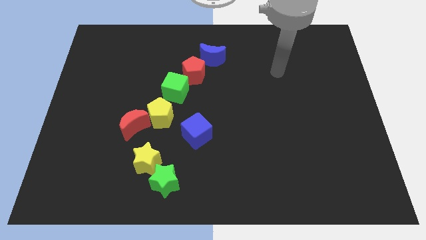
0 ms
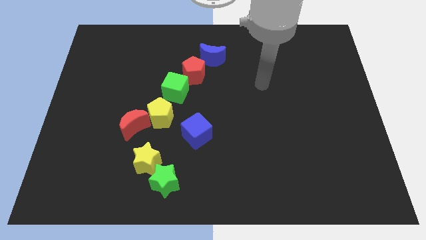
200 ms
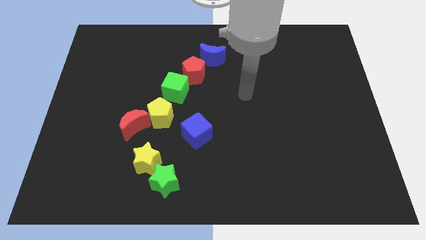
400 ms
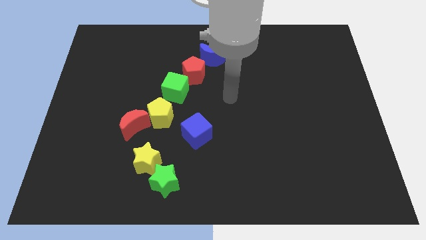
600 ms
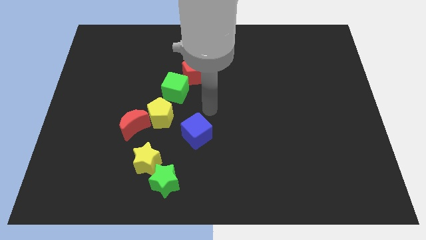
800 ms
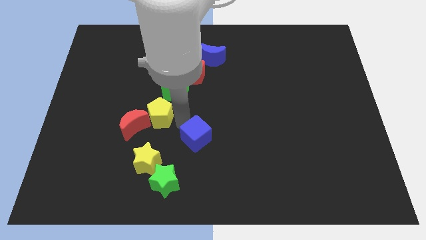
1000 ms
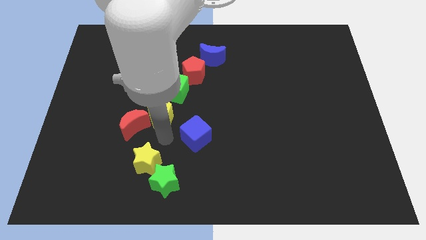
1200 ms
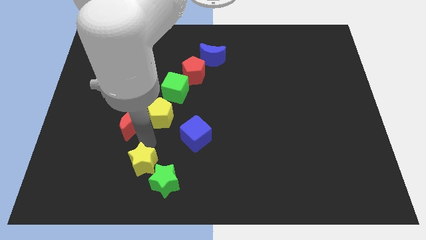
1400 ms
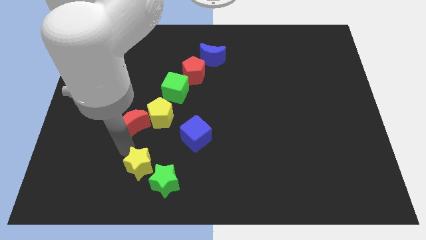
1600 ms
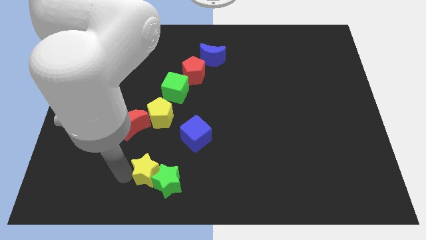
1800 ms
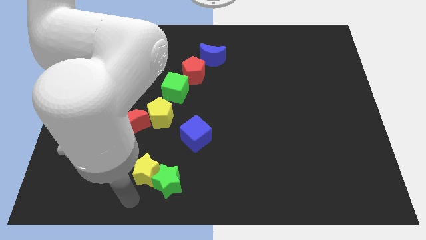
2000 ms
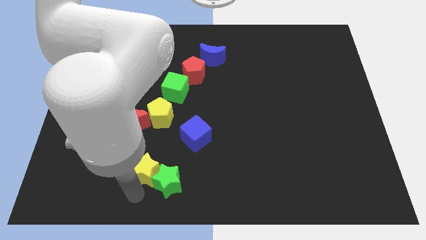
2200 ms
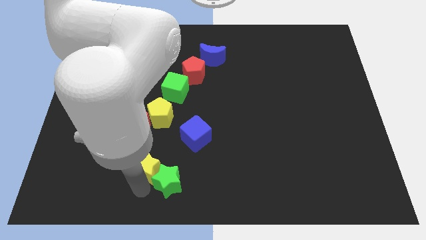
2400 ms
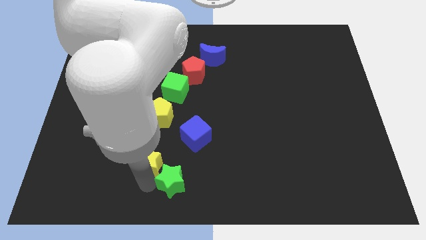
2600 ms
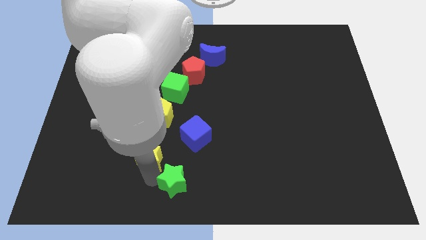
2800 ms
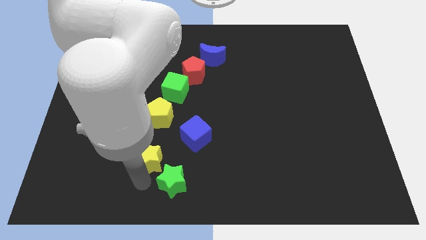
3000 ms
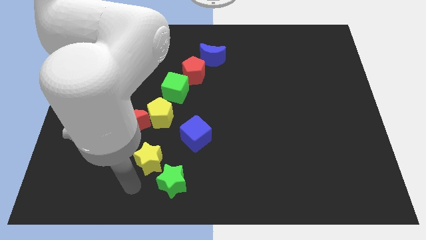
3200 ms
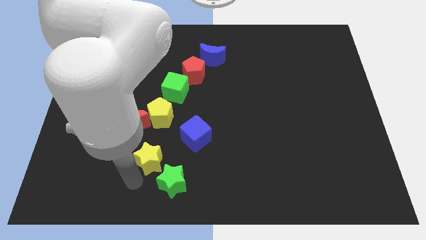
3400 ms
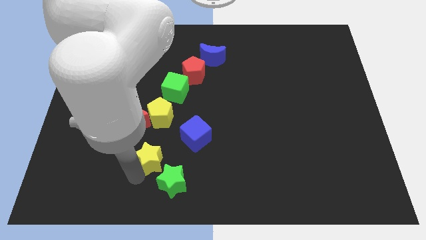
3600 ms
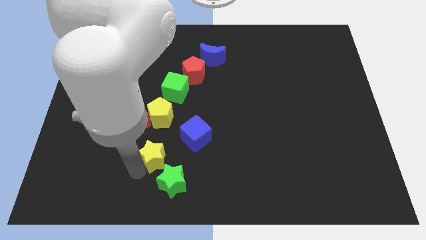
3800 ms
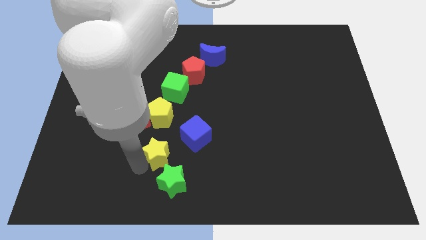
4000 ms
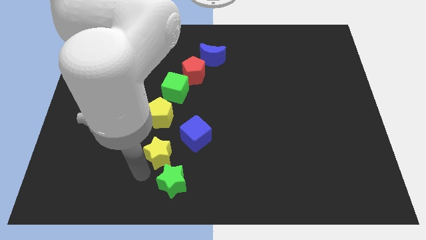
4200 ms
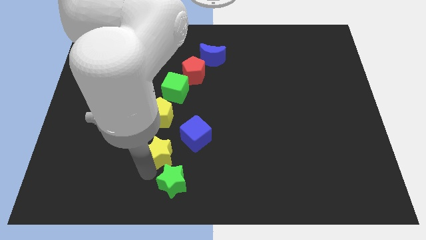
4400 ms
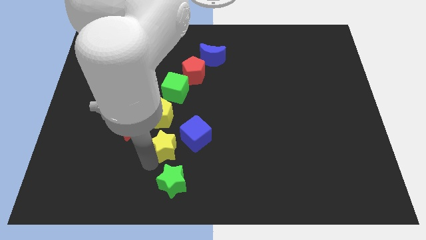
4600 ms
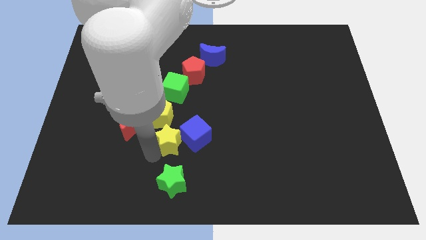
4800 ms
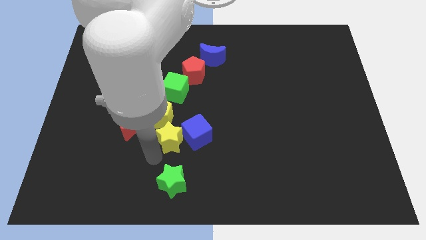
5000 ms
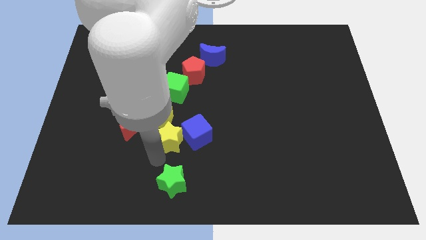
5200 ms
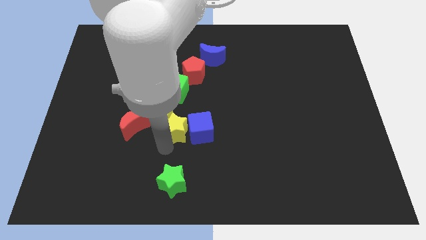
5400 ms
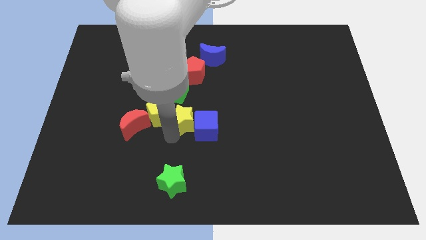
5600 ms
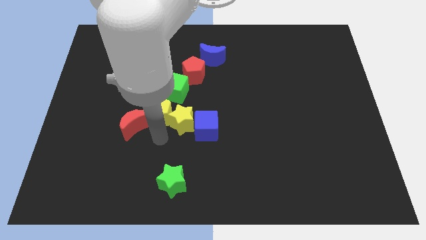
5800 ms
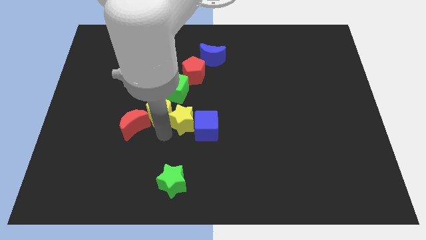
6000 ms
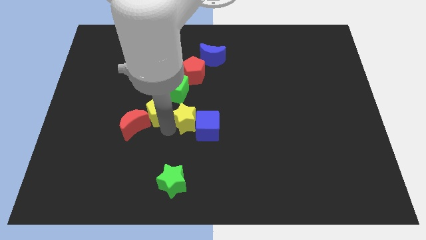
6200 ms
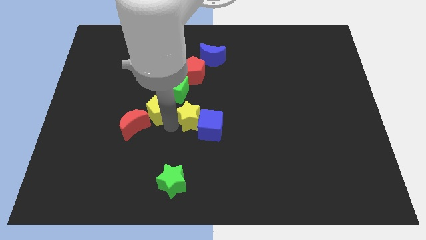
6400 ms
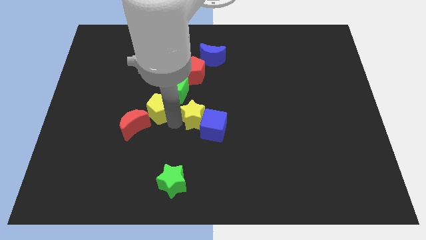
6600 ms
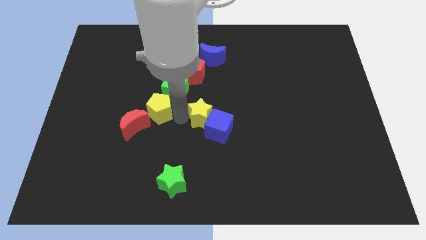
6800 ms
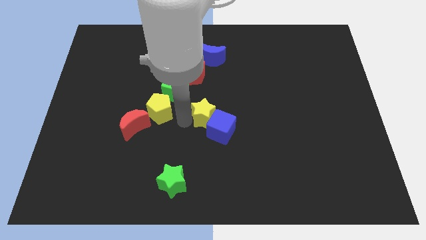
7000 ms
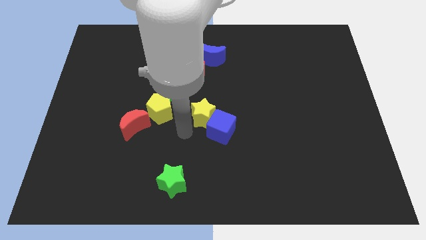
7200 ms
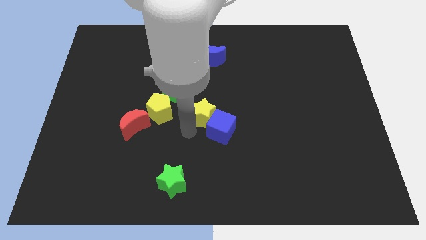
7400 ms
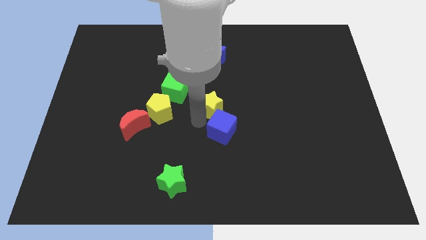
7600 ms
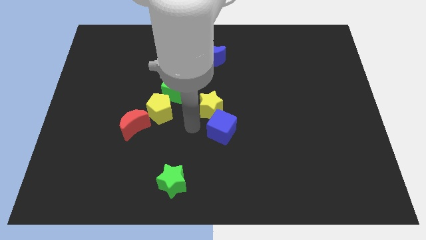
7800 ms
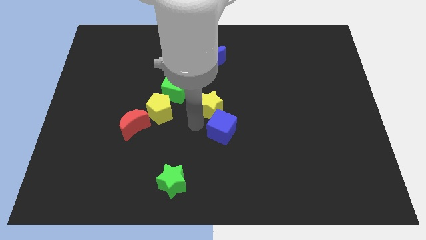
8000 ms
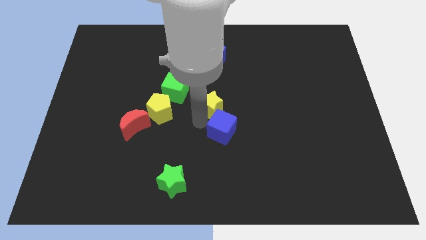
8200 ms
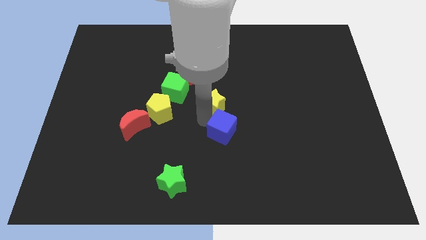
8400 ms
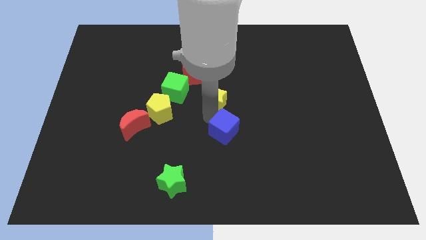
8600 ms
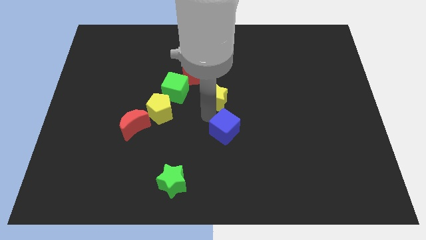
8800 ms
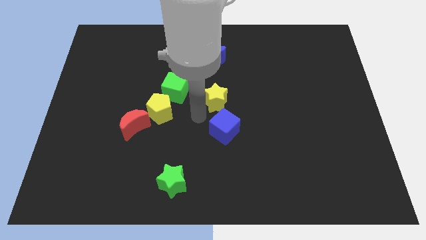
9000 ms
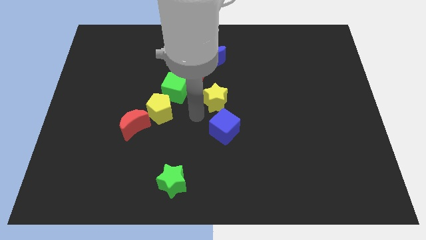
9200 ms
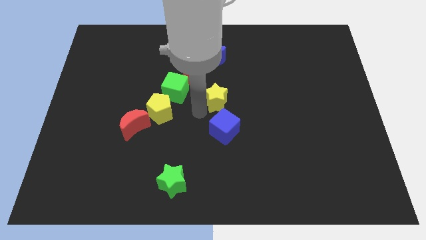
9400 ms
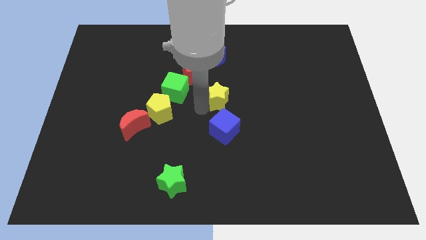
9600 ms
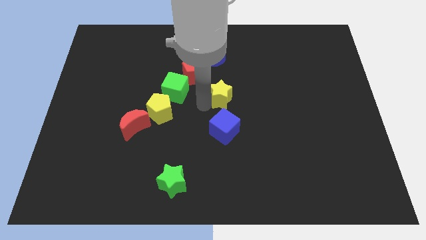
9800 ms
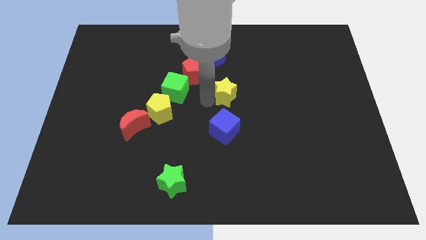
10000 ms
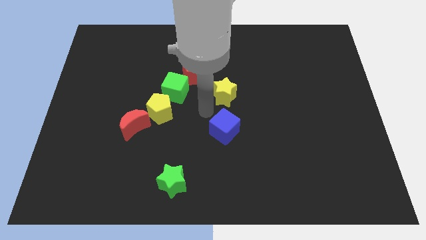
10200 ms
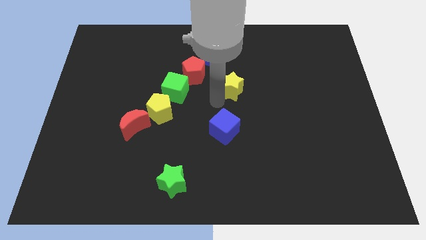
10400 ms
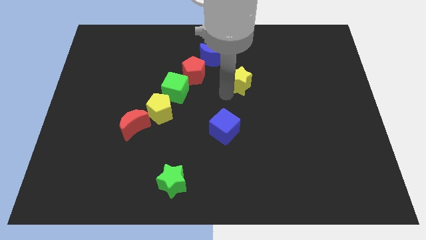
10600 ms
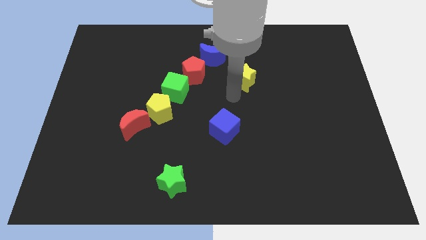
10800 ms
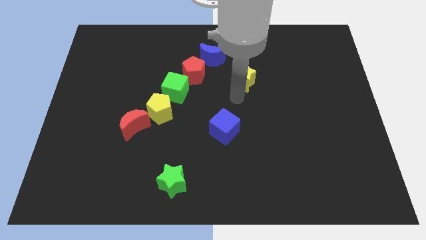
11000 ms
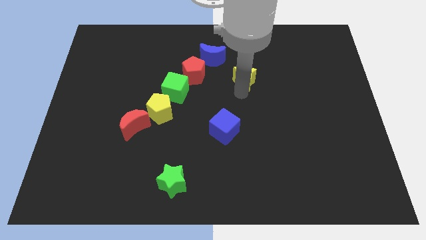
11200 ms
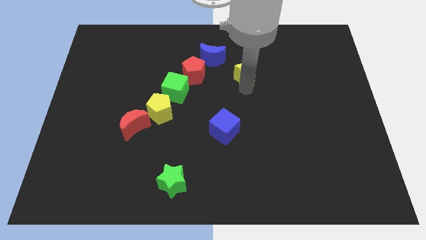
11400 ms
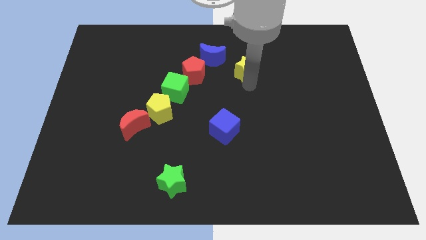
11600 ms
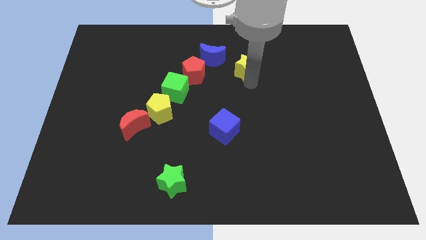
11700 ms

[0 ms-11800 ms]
push the yellow star to the right of the blue moon

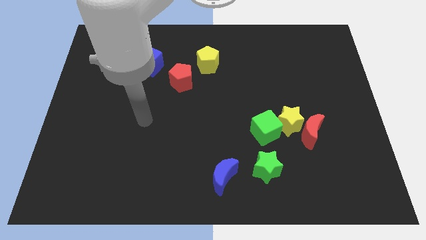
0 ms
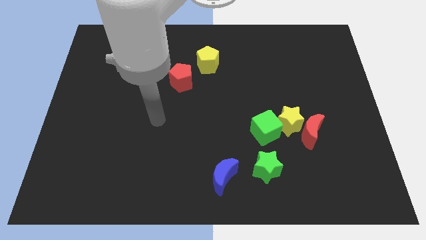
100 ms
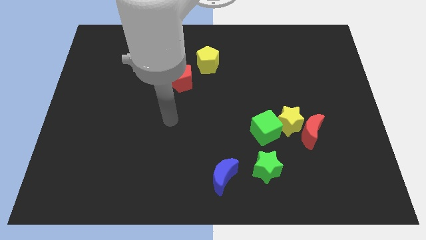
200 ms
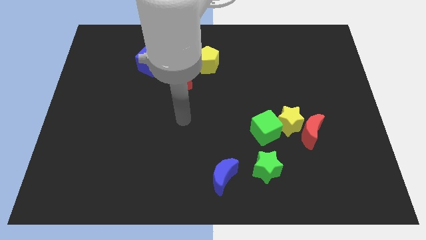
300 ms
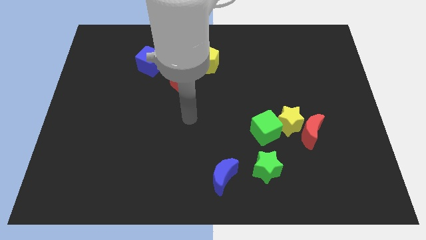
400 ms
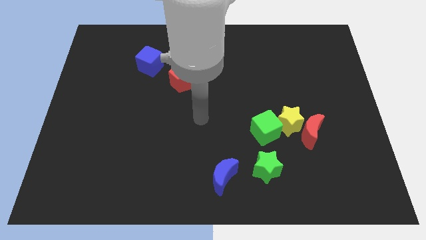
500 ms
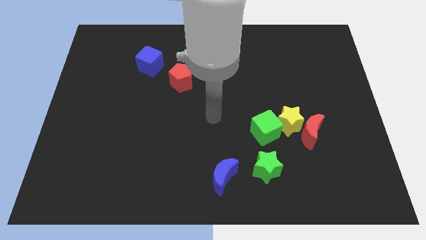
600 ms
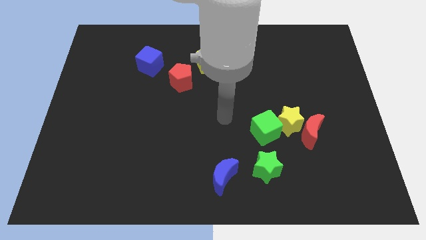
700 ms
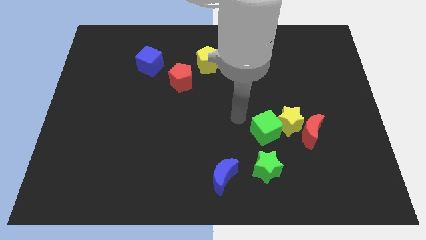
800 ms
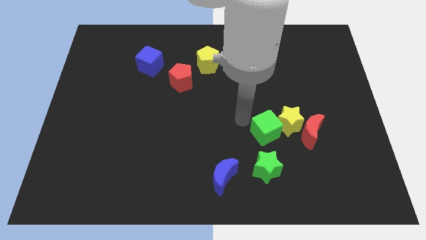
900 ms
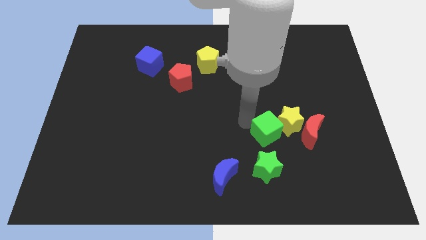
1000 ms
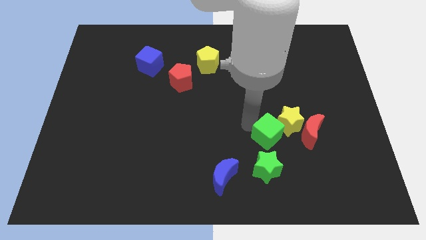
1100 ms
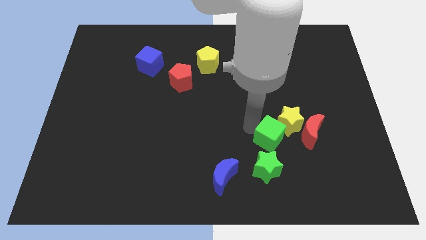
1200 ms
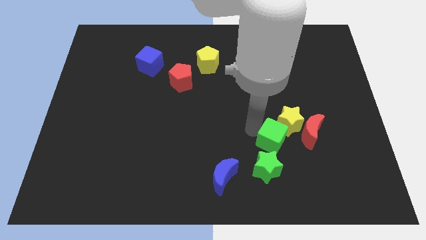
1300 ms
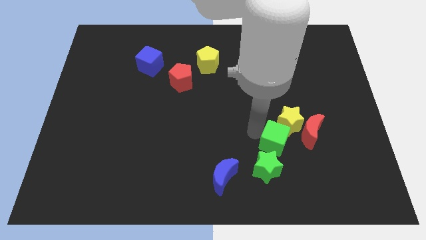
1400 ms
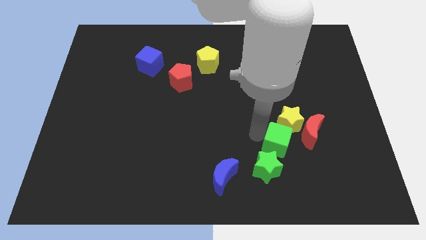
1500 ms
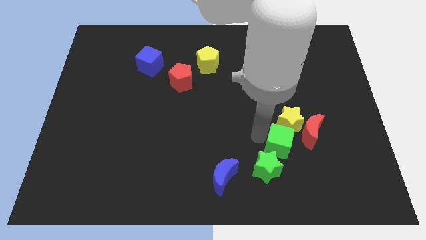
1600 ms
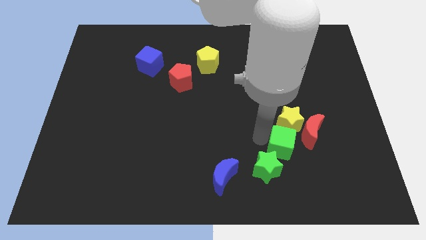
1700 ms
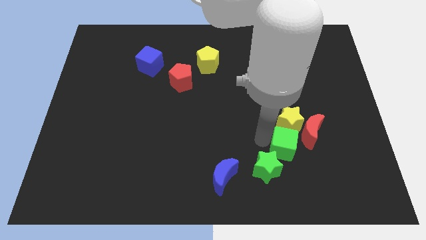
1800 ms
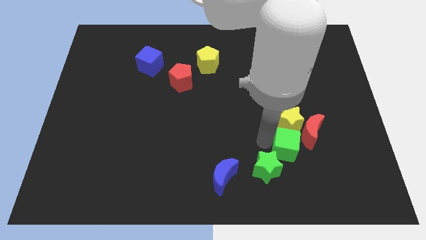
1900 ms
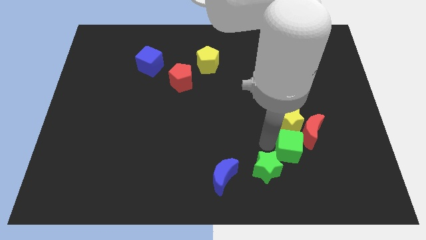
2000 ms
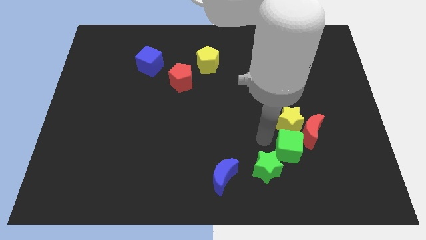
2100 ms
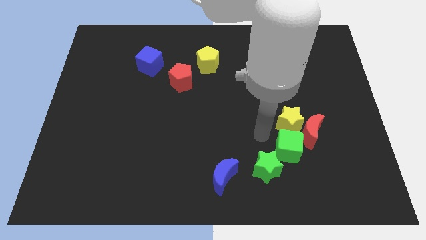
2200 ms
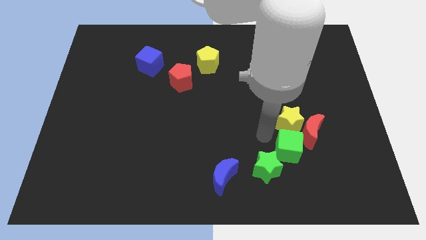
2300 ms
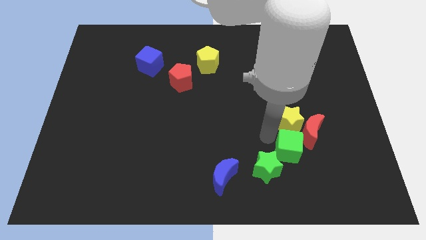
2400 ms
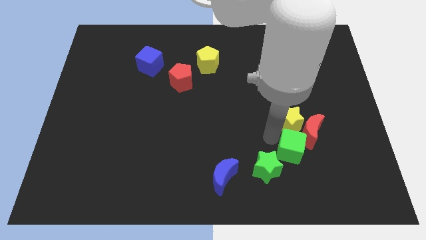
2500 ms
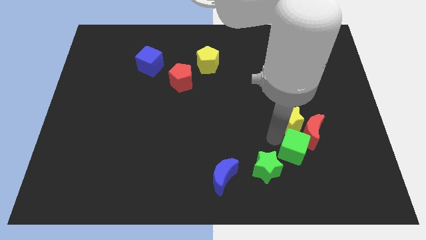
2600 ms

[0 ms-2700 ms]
put the green cube to the bottom right of the yellow star
